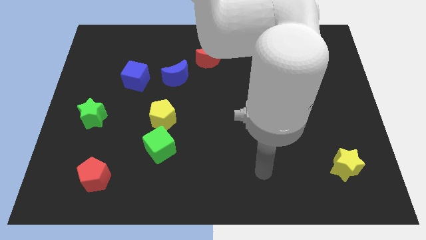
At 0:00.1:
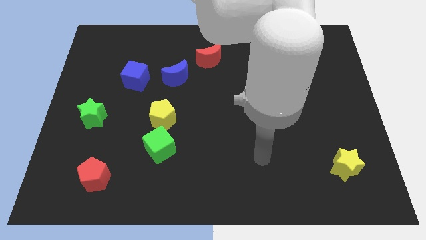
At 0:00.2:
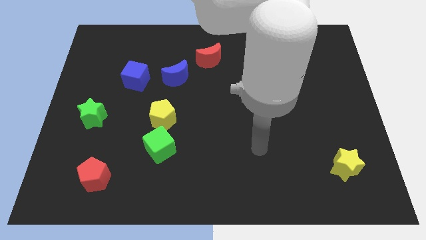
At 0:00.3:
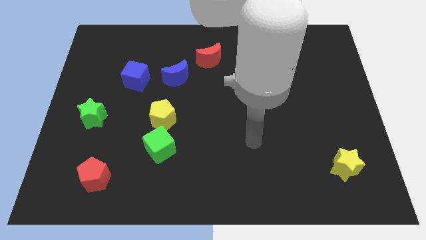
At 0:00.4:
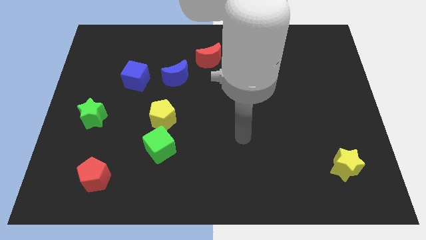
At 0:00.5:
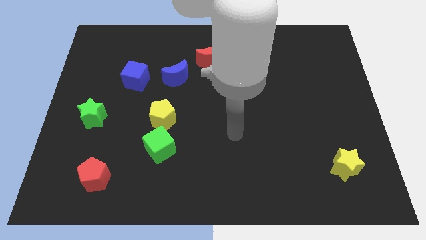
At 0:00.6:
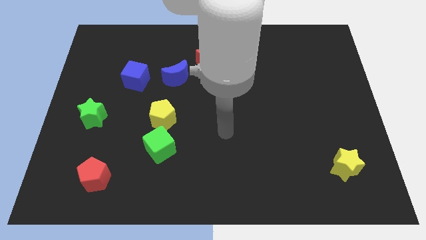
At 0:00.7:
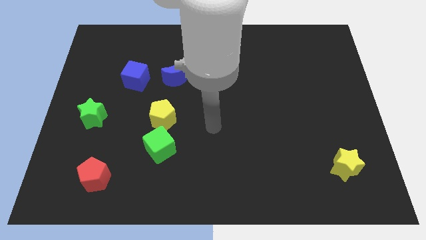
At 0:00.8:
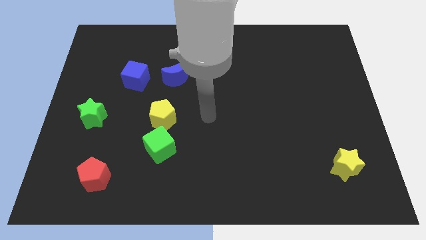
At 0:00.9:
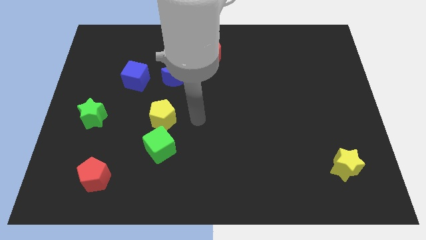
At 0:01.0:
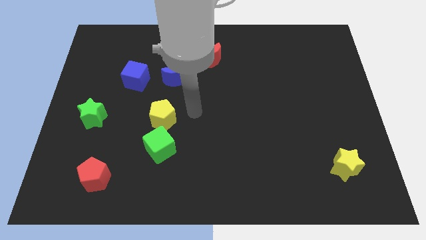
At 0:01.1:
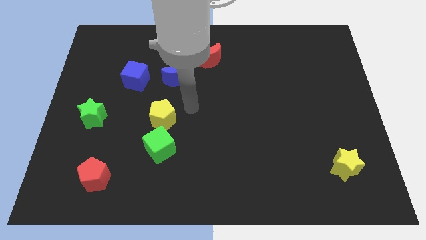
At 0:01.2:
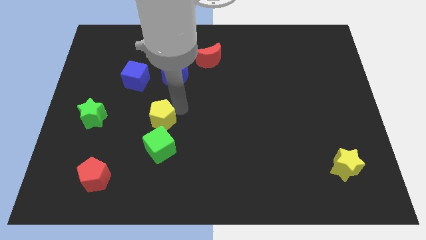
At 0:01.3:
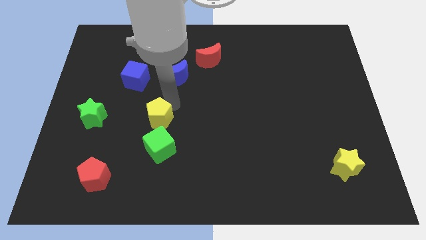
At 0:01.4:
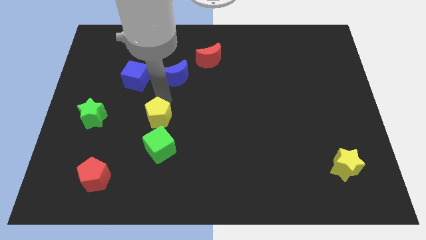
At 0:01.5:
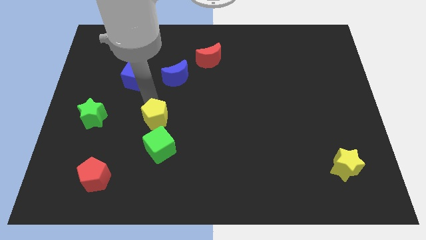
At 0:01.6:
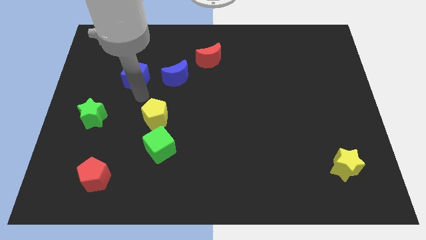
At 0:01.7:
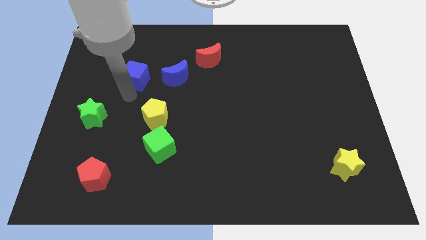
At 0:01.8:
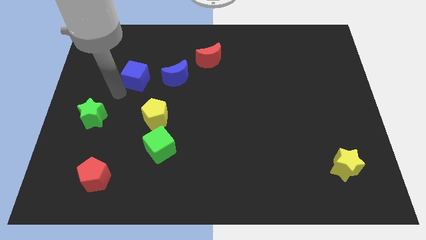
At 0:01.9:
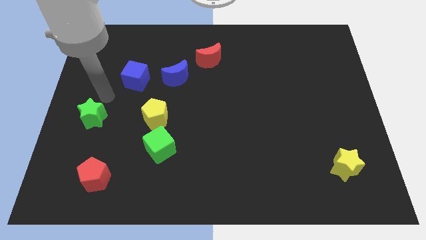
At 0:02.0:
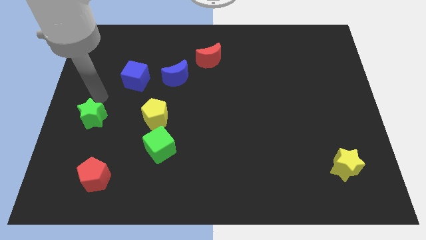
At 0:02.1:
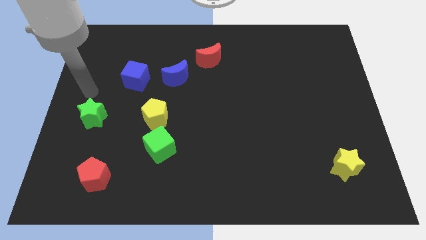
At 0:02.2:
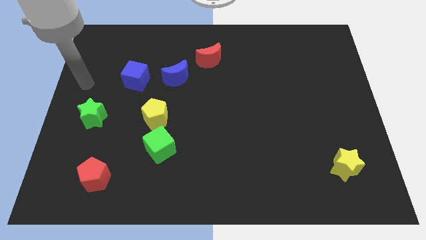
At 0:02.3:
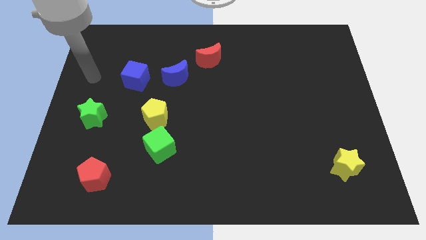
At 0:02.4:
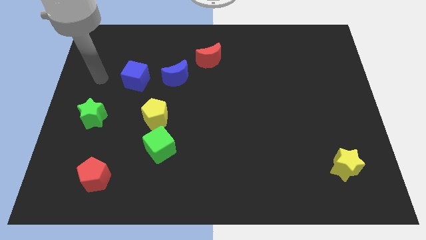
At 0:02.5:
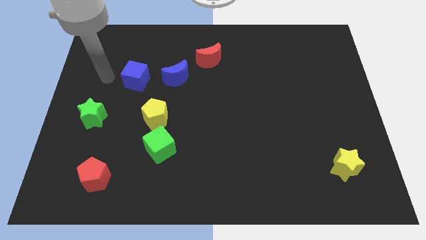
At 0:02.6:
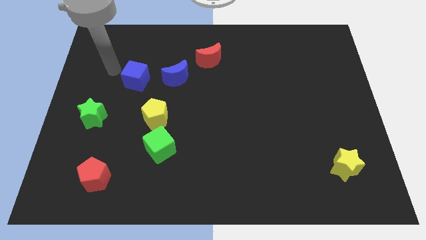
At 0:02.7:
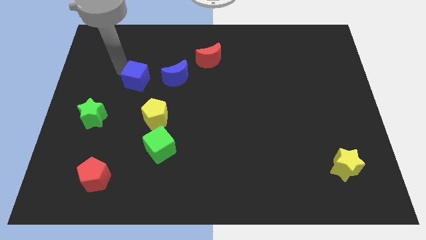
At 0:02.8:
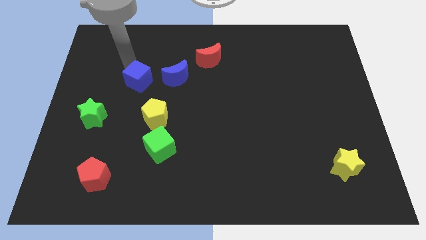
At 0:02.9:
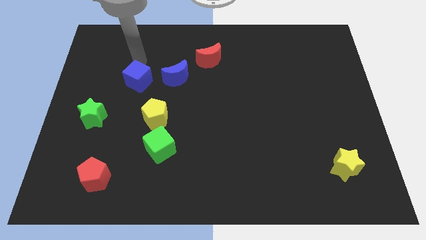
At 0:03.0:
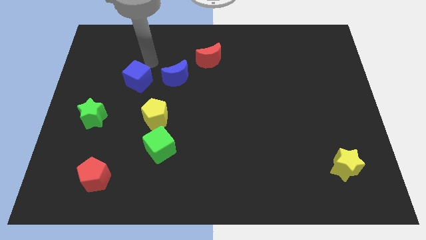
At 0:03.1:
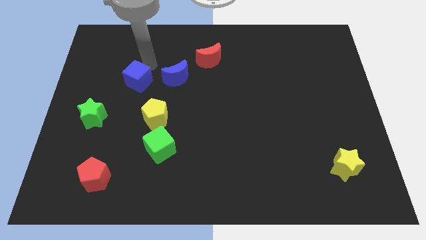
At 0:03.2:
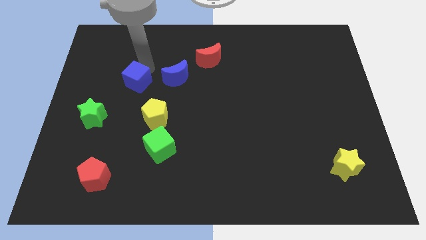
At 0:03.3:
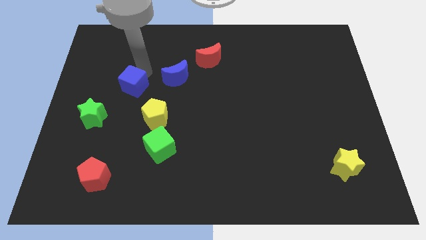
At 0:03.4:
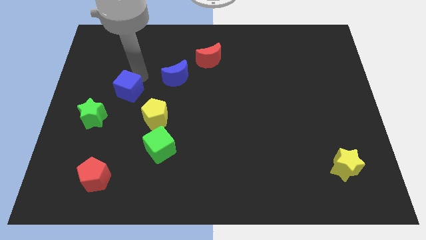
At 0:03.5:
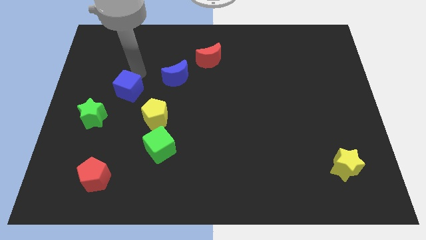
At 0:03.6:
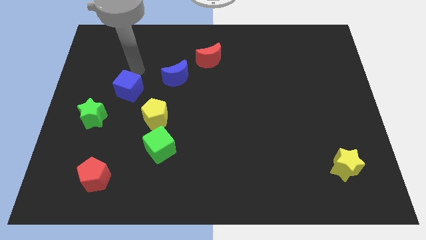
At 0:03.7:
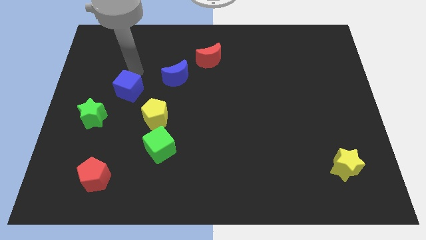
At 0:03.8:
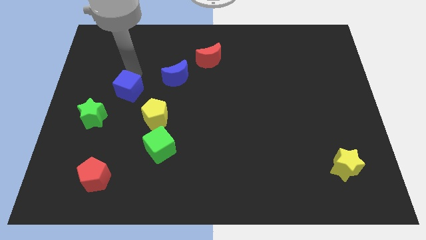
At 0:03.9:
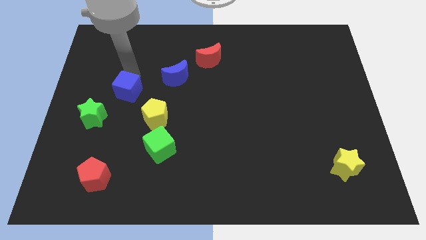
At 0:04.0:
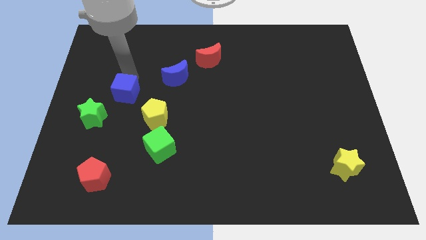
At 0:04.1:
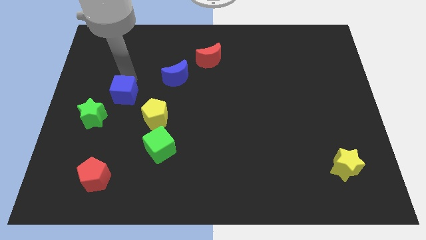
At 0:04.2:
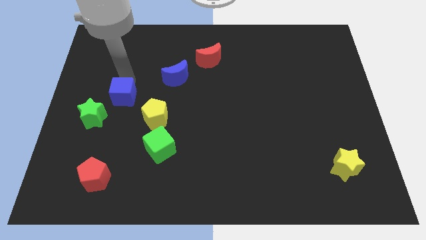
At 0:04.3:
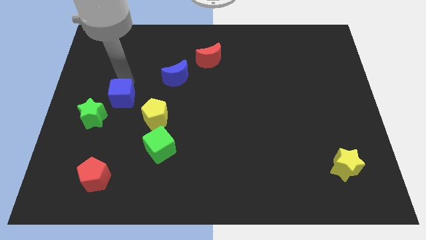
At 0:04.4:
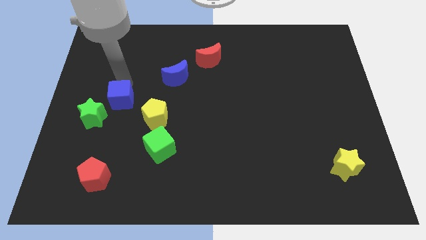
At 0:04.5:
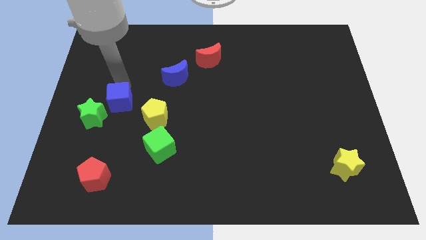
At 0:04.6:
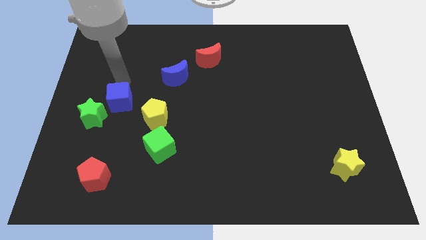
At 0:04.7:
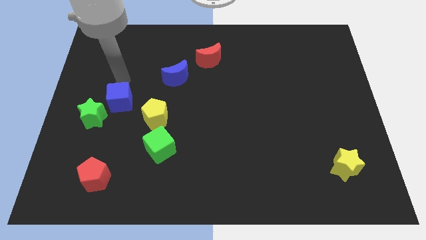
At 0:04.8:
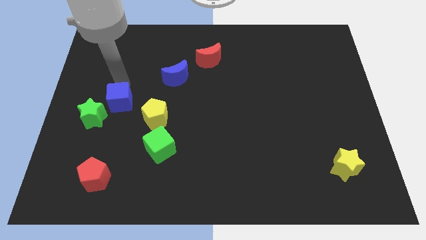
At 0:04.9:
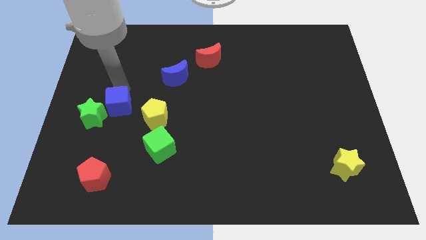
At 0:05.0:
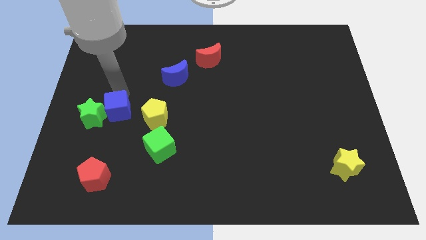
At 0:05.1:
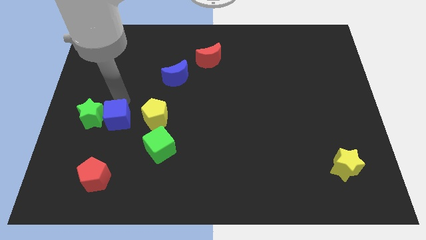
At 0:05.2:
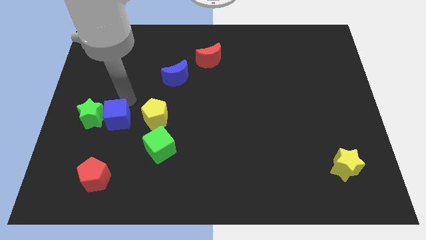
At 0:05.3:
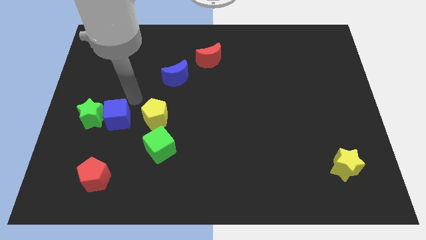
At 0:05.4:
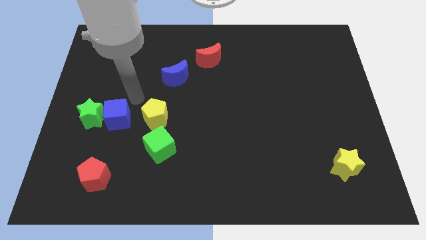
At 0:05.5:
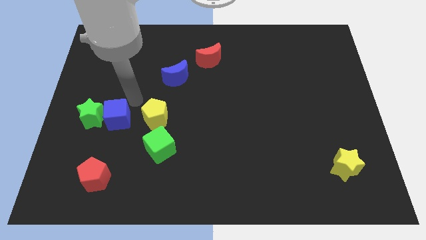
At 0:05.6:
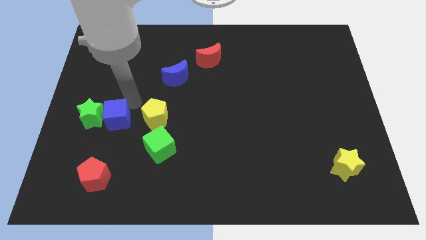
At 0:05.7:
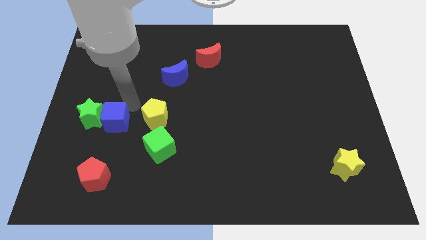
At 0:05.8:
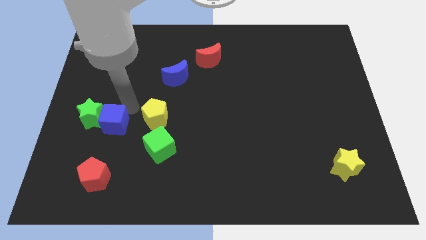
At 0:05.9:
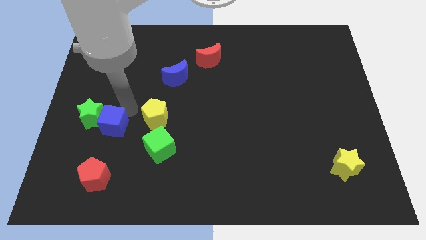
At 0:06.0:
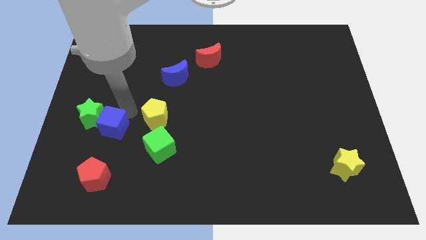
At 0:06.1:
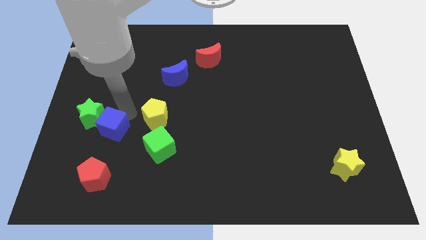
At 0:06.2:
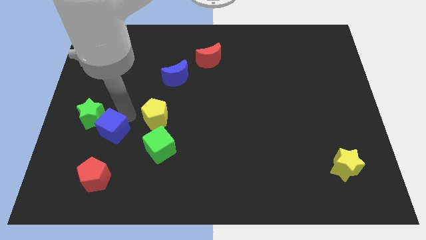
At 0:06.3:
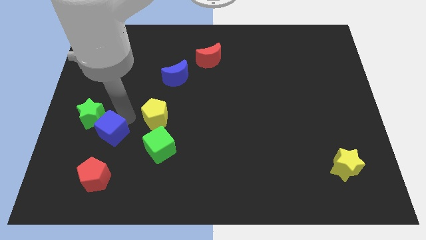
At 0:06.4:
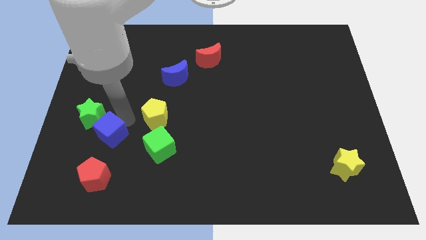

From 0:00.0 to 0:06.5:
push the blue cube to the bottom of the green star
